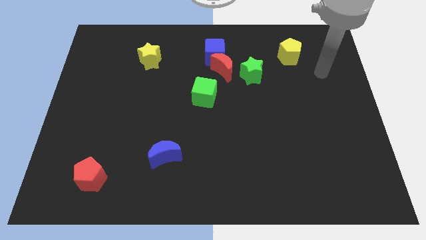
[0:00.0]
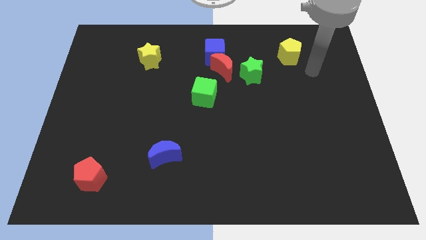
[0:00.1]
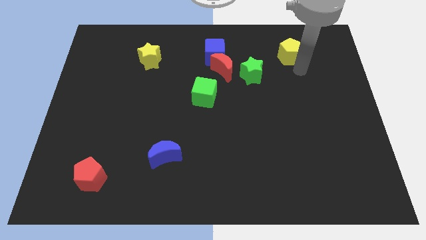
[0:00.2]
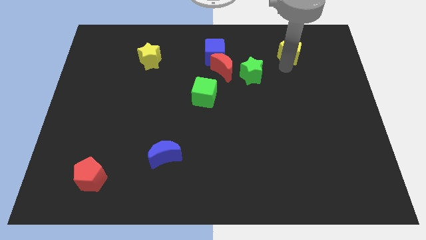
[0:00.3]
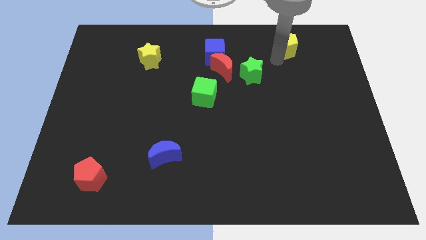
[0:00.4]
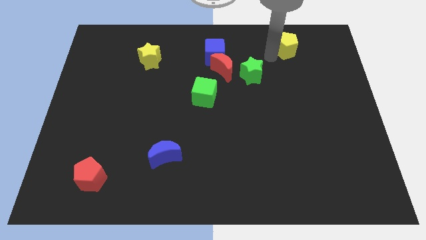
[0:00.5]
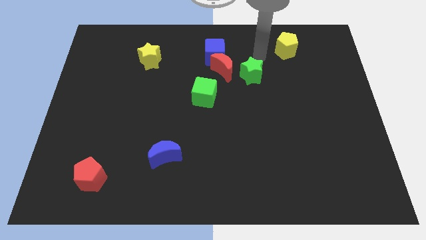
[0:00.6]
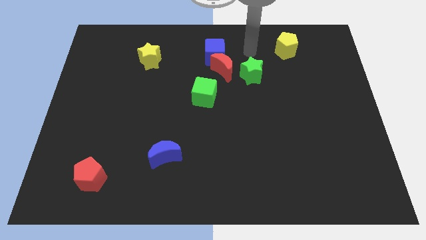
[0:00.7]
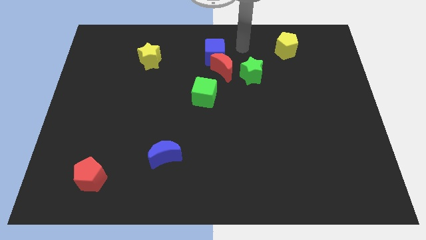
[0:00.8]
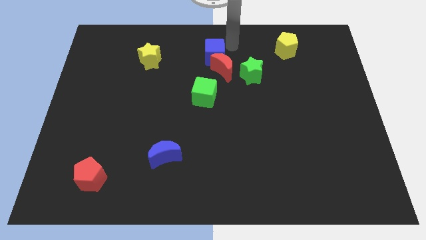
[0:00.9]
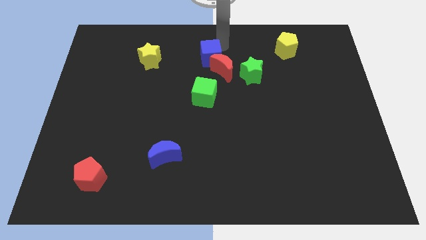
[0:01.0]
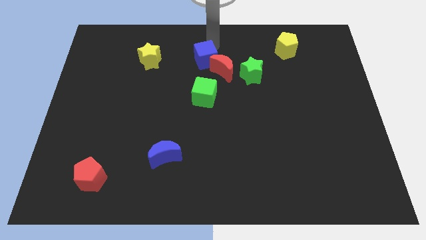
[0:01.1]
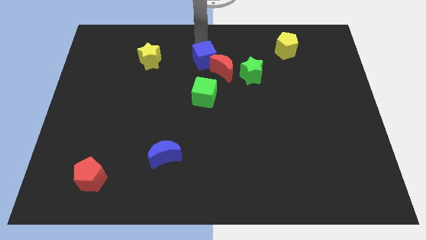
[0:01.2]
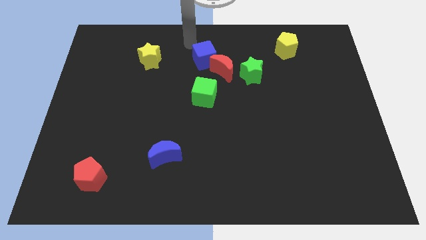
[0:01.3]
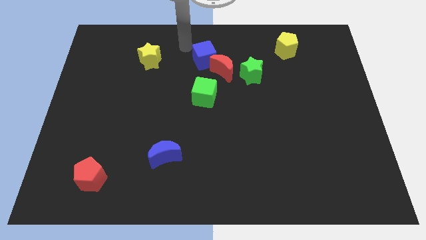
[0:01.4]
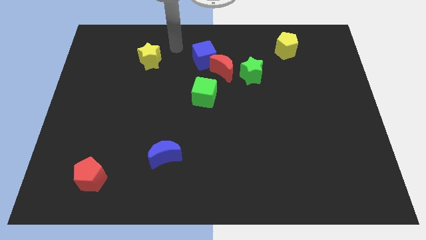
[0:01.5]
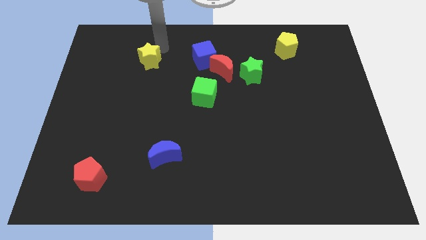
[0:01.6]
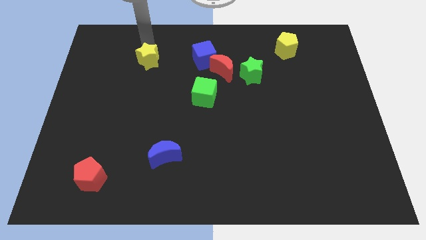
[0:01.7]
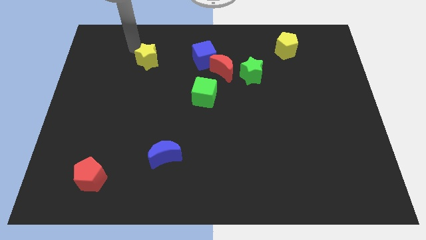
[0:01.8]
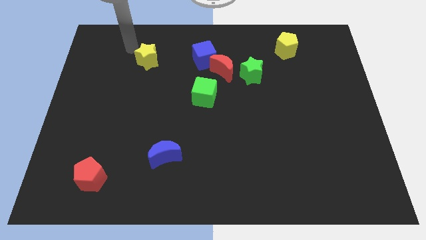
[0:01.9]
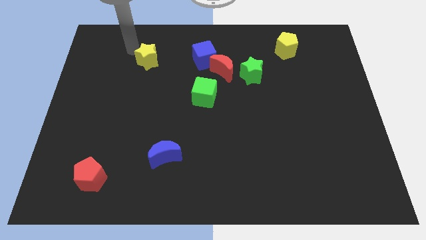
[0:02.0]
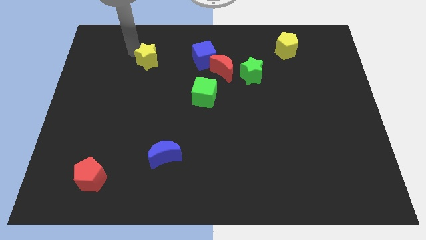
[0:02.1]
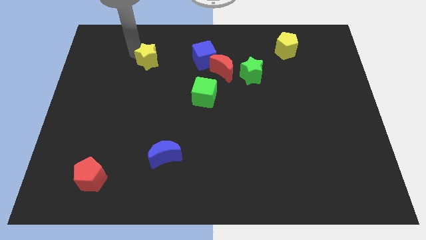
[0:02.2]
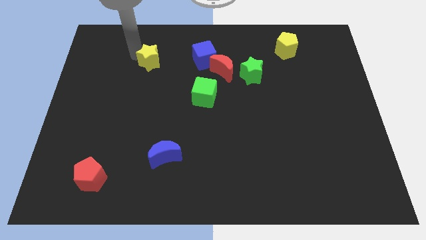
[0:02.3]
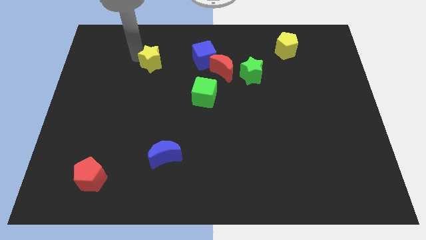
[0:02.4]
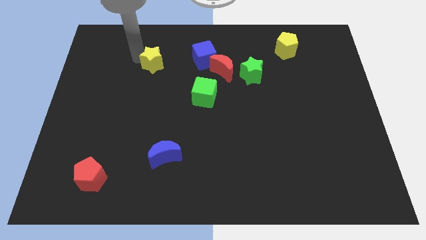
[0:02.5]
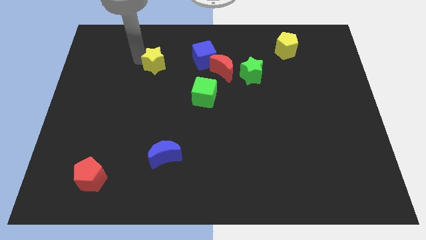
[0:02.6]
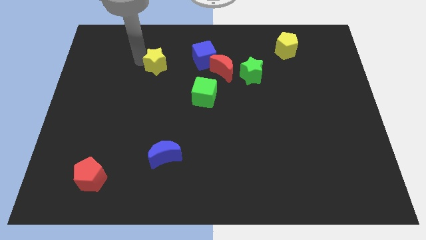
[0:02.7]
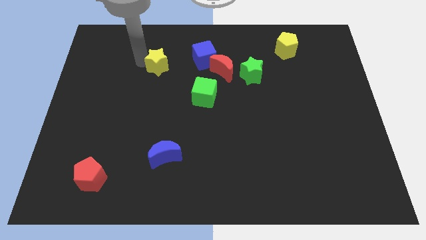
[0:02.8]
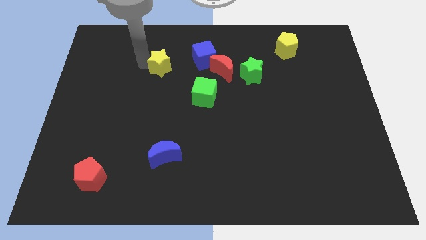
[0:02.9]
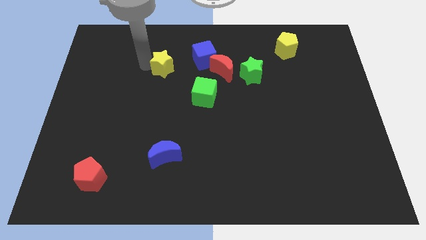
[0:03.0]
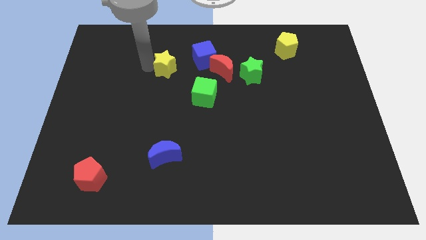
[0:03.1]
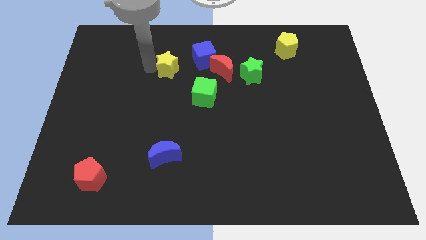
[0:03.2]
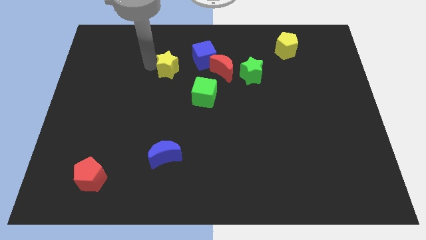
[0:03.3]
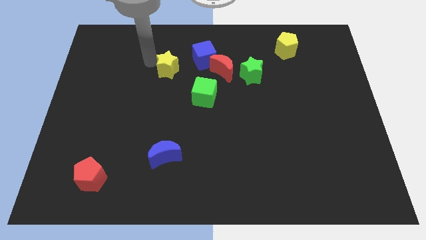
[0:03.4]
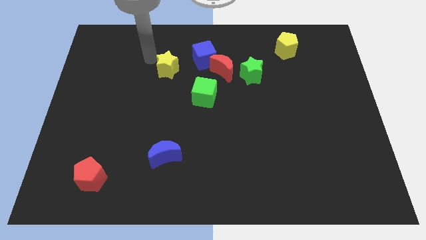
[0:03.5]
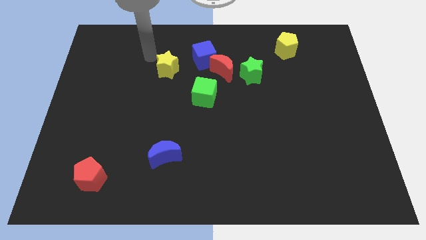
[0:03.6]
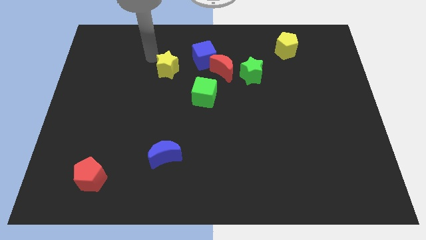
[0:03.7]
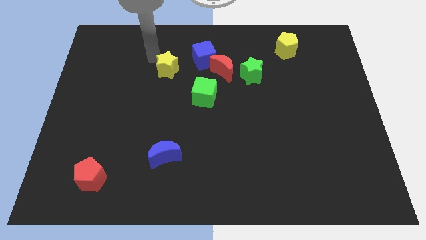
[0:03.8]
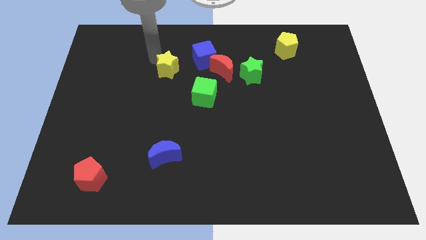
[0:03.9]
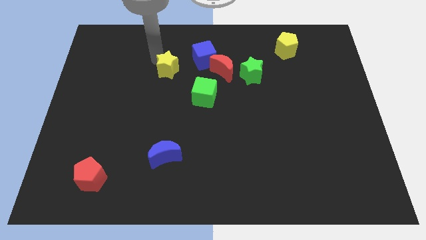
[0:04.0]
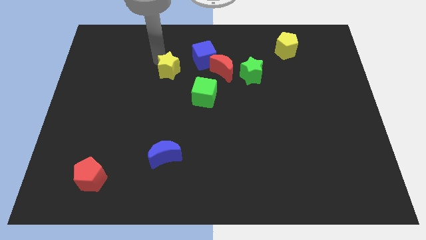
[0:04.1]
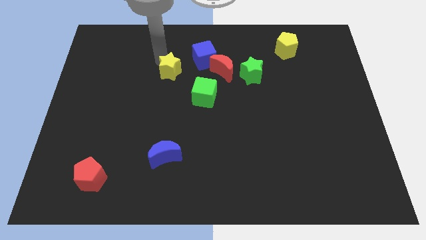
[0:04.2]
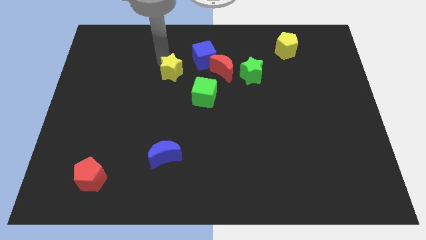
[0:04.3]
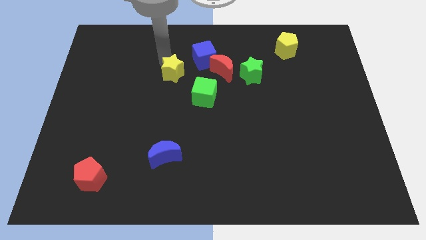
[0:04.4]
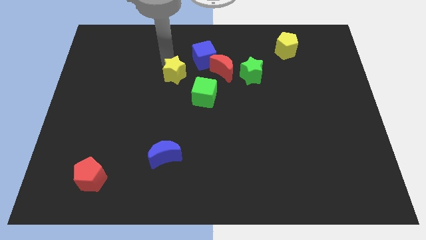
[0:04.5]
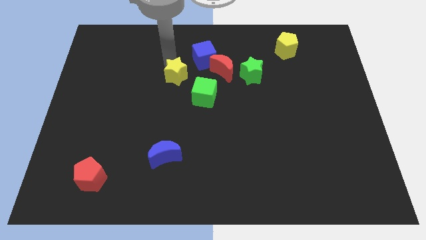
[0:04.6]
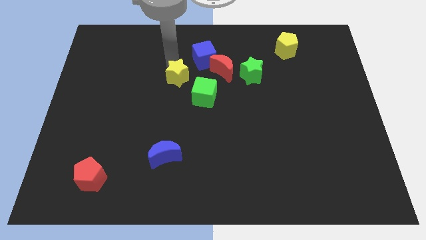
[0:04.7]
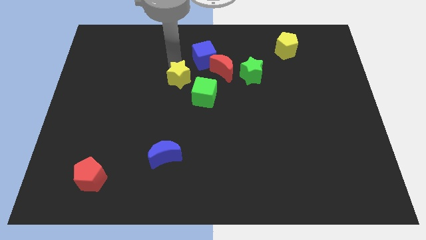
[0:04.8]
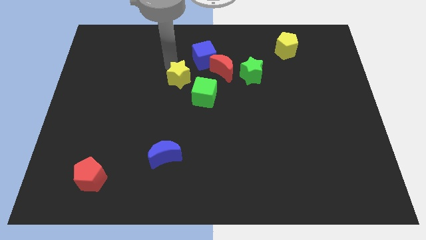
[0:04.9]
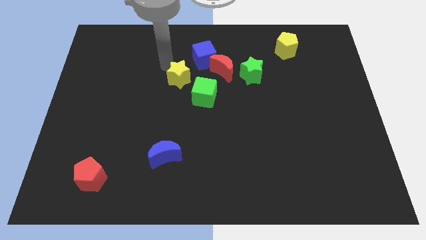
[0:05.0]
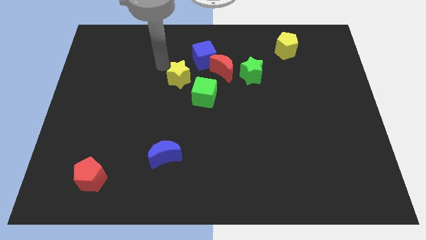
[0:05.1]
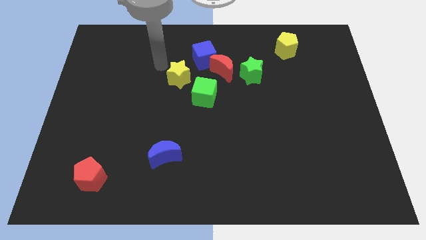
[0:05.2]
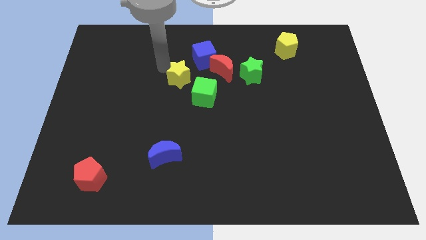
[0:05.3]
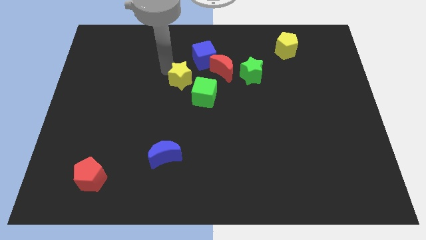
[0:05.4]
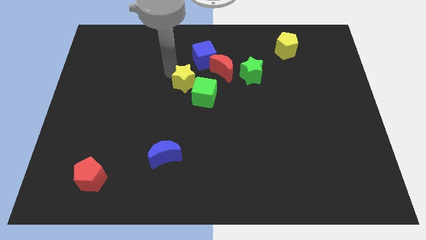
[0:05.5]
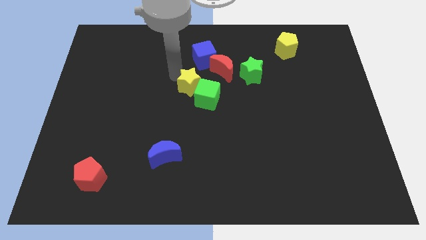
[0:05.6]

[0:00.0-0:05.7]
slide the yellow star close to the green cube

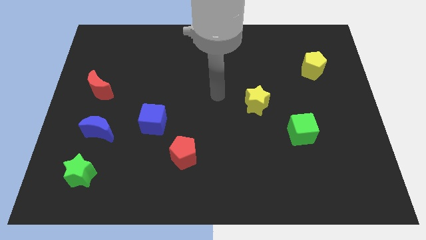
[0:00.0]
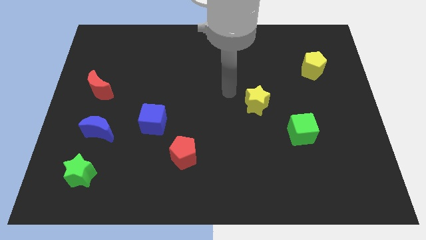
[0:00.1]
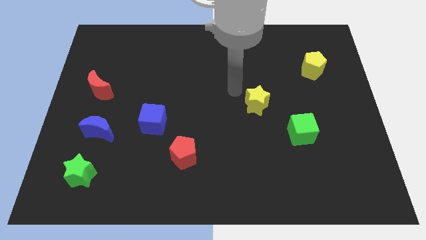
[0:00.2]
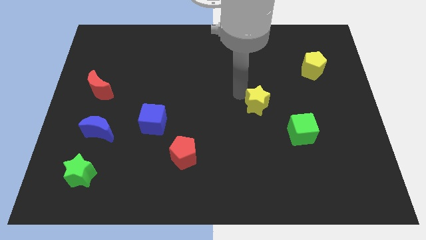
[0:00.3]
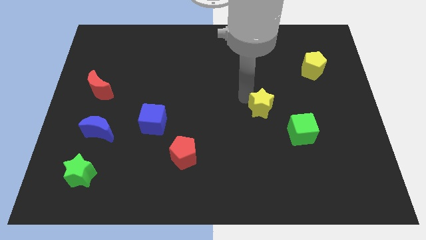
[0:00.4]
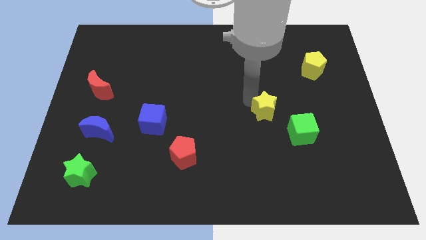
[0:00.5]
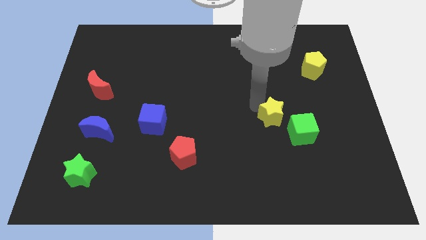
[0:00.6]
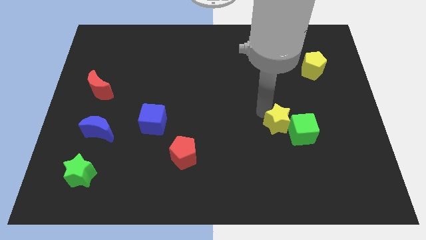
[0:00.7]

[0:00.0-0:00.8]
move the yellow star next to the green cube
